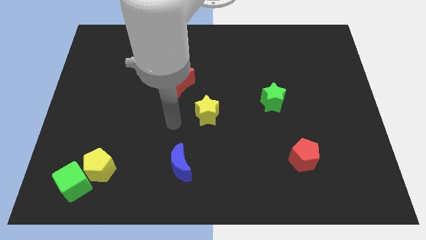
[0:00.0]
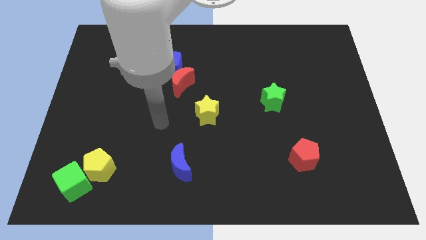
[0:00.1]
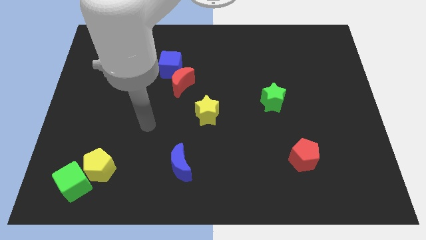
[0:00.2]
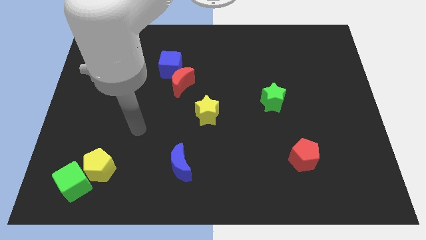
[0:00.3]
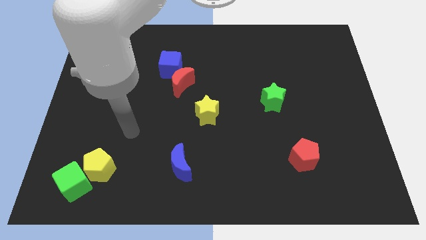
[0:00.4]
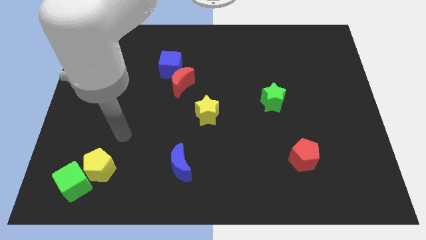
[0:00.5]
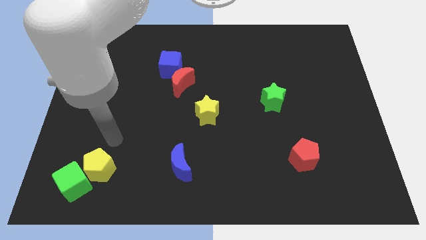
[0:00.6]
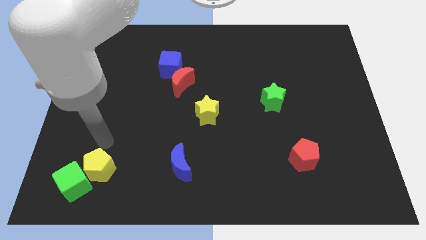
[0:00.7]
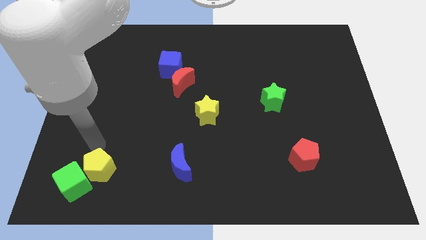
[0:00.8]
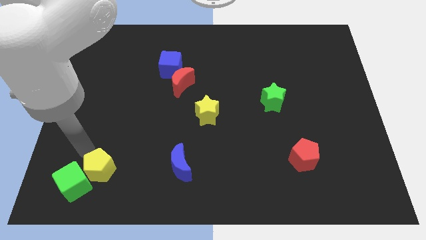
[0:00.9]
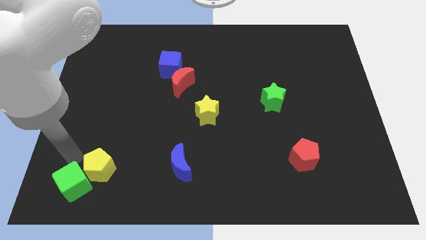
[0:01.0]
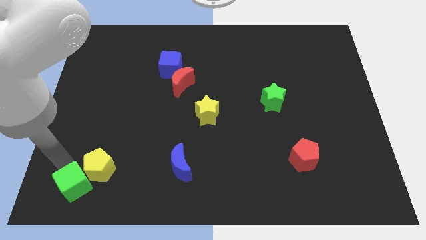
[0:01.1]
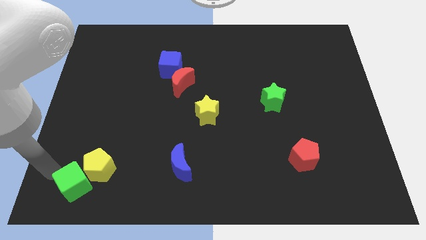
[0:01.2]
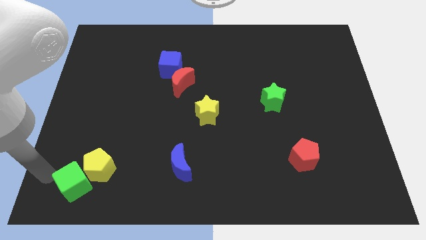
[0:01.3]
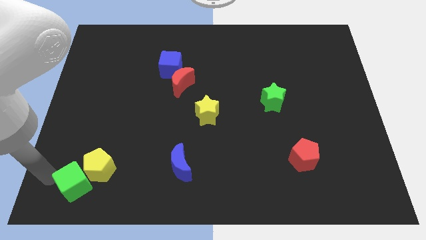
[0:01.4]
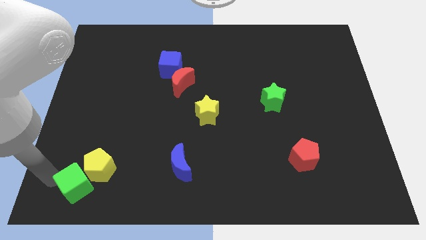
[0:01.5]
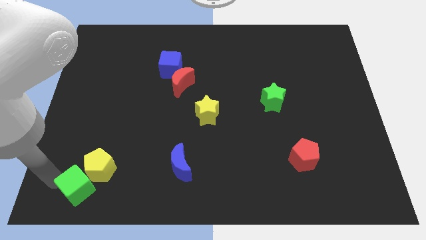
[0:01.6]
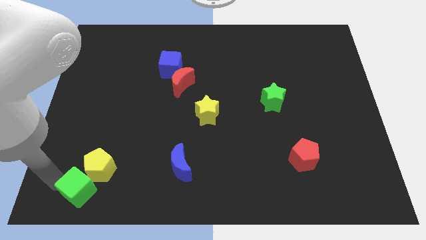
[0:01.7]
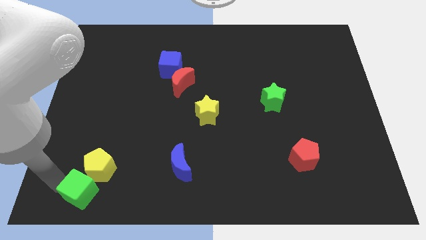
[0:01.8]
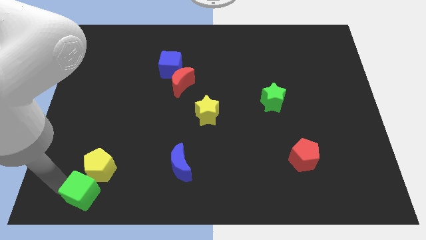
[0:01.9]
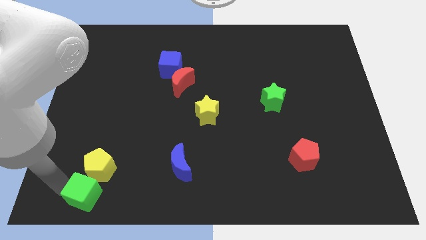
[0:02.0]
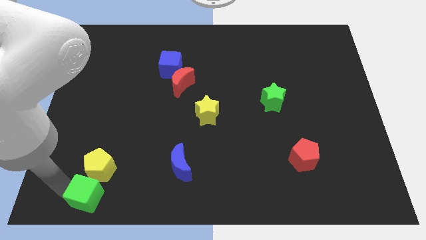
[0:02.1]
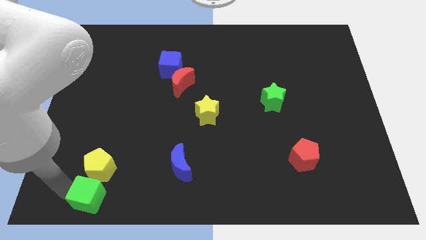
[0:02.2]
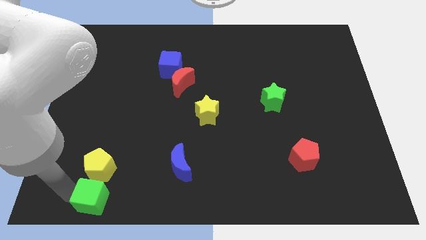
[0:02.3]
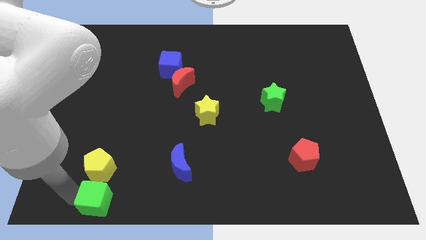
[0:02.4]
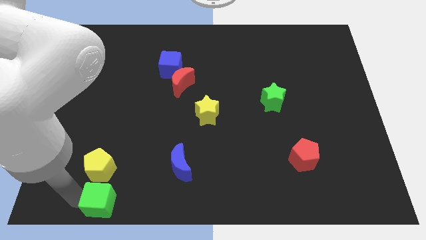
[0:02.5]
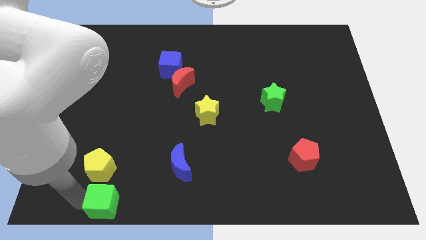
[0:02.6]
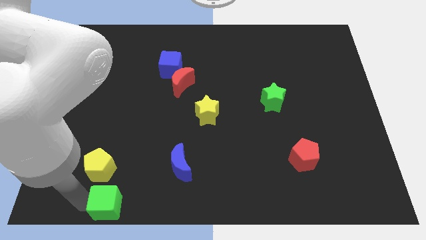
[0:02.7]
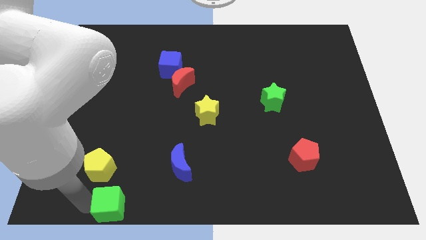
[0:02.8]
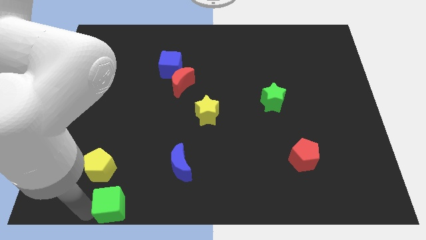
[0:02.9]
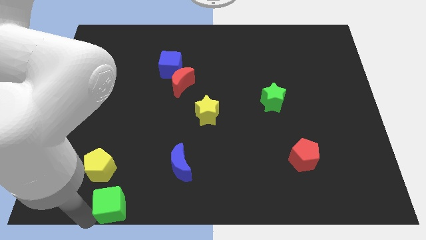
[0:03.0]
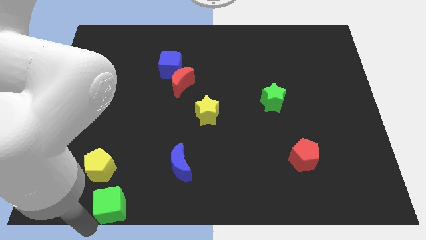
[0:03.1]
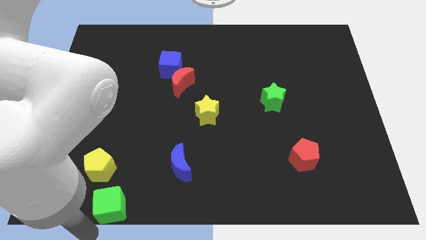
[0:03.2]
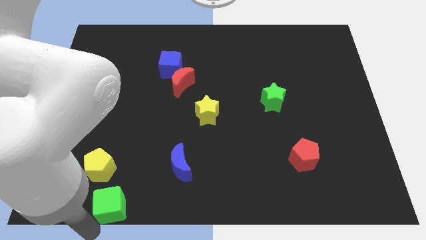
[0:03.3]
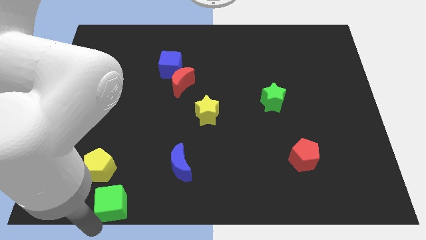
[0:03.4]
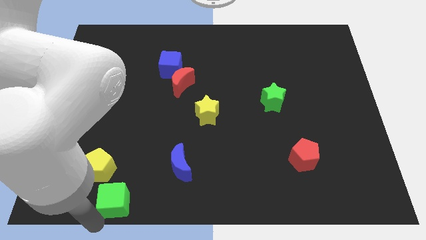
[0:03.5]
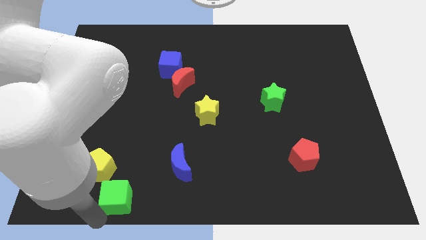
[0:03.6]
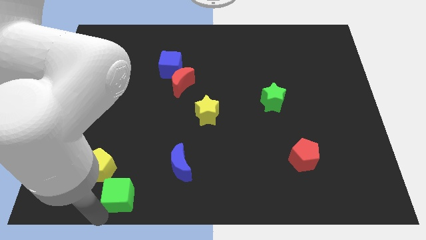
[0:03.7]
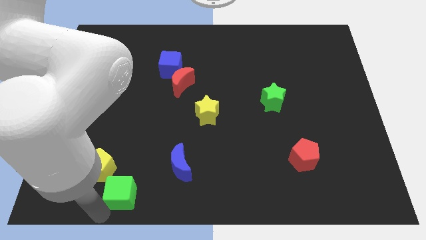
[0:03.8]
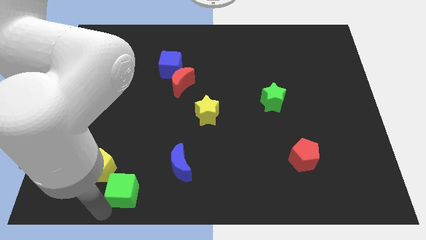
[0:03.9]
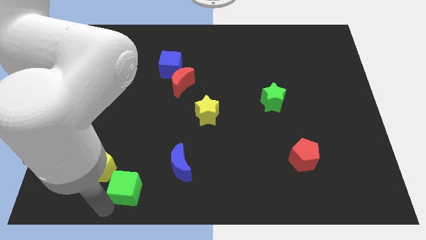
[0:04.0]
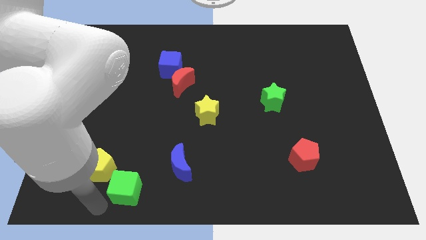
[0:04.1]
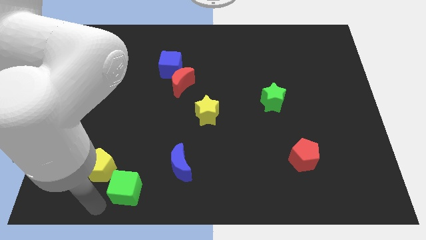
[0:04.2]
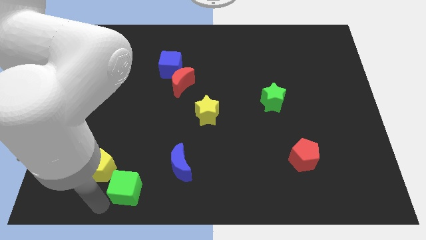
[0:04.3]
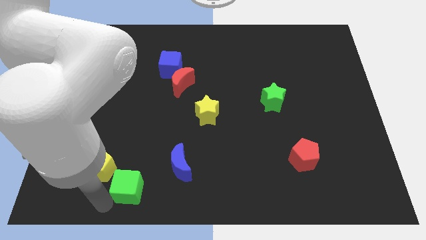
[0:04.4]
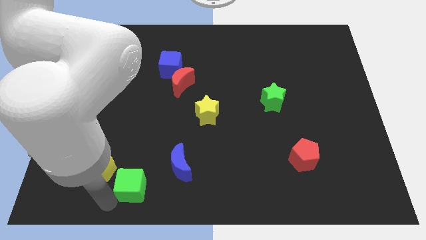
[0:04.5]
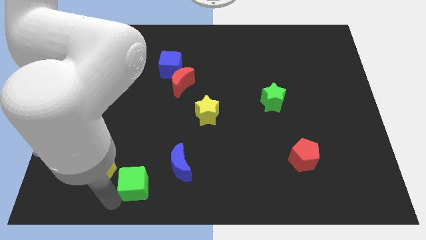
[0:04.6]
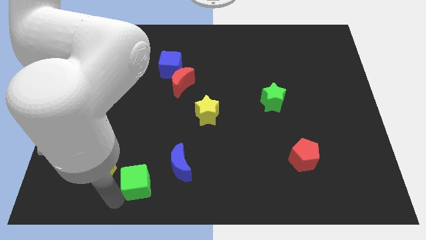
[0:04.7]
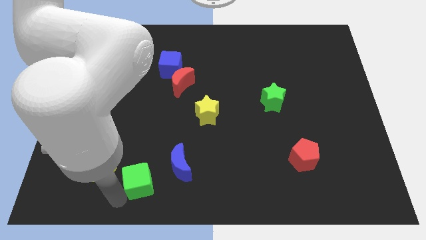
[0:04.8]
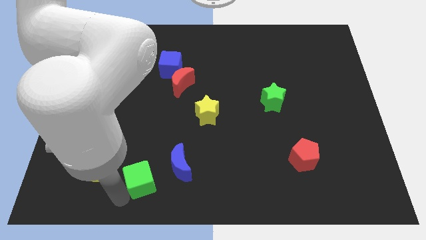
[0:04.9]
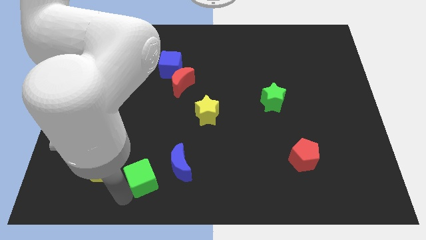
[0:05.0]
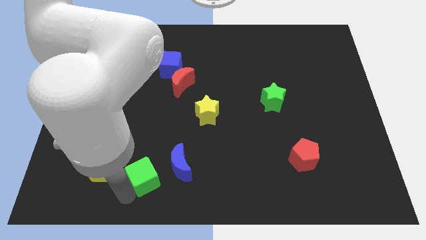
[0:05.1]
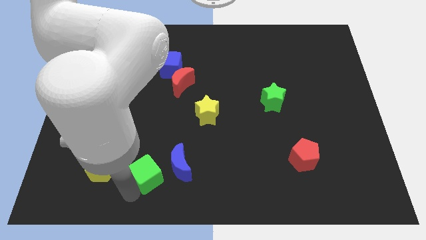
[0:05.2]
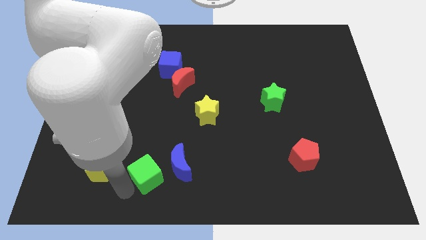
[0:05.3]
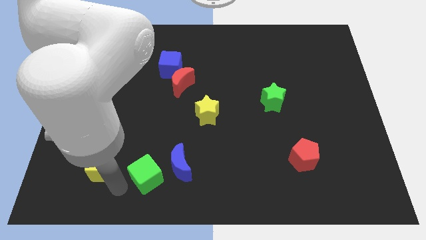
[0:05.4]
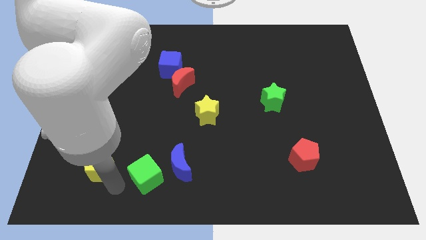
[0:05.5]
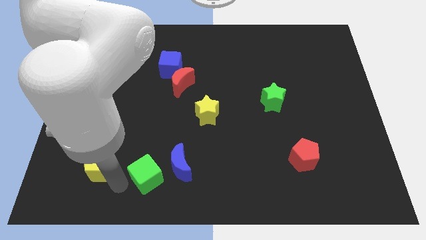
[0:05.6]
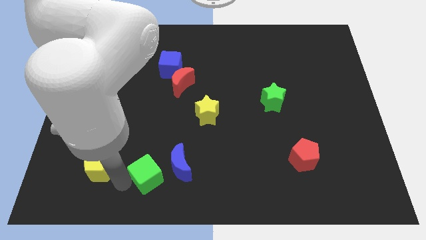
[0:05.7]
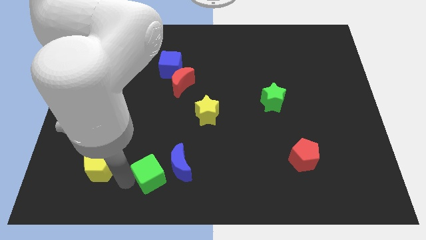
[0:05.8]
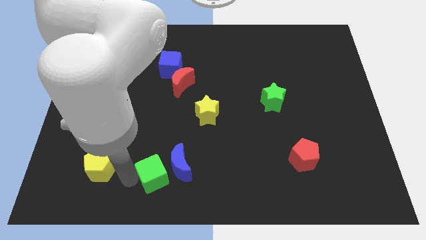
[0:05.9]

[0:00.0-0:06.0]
move the green cube close to the blue moon

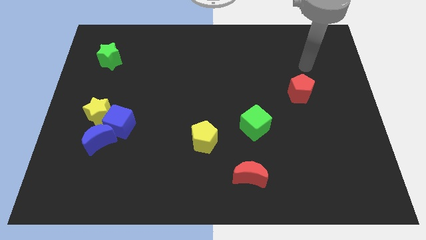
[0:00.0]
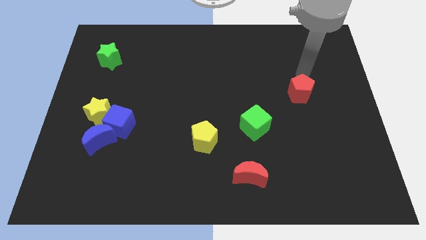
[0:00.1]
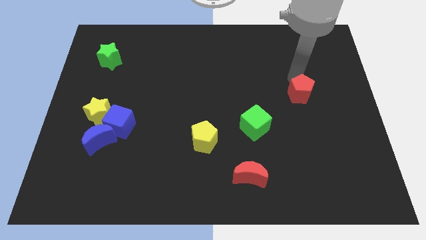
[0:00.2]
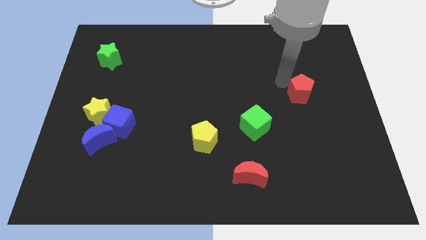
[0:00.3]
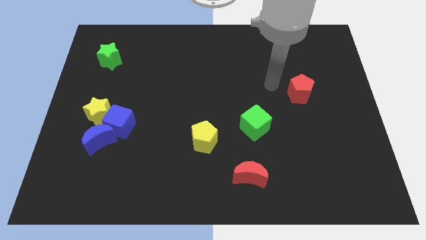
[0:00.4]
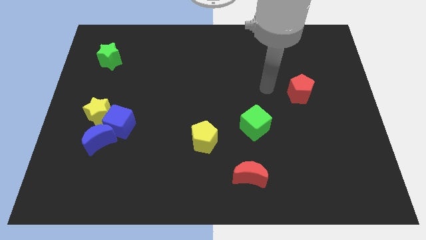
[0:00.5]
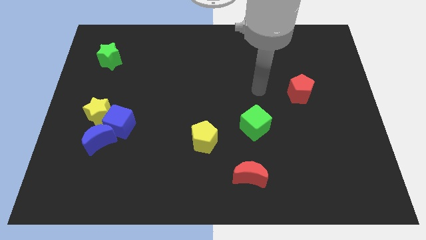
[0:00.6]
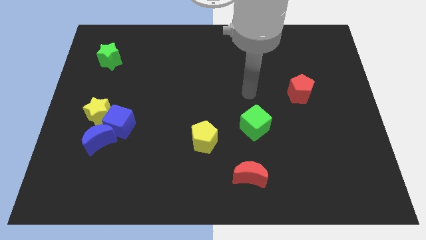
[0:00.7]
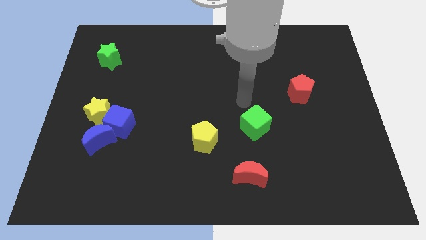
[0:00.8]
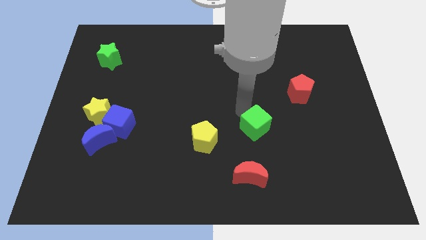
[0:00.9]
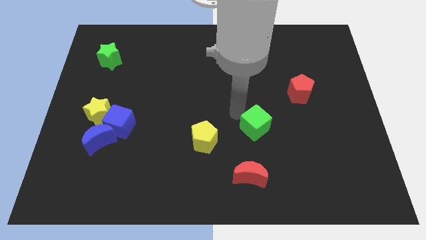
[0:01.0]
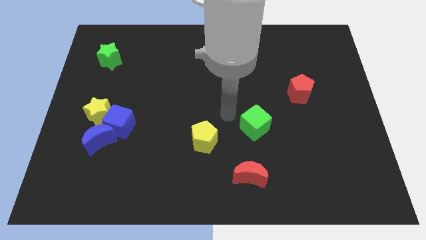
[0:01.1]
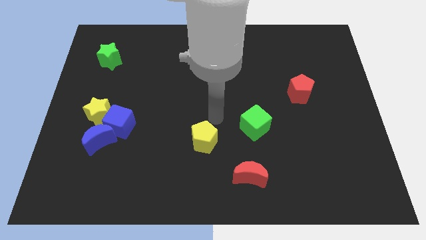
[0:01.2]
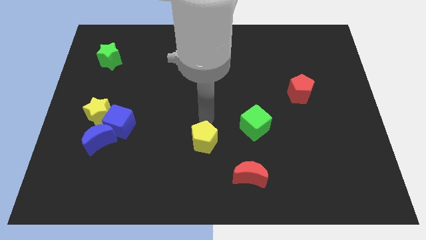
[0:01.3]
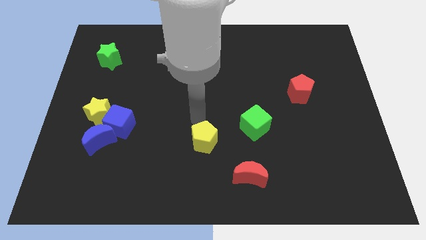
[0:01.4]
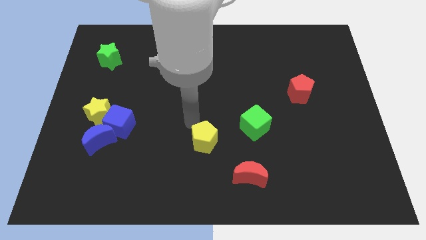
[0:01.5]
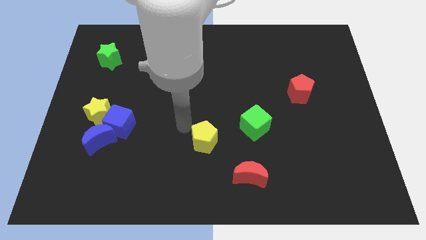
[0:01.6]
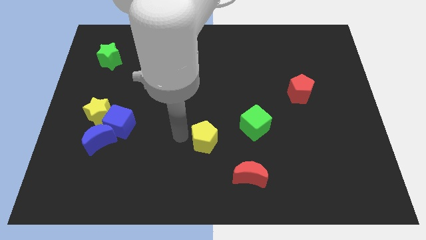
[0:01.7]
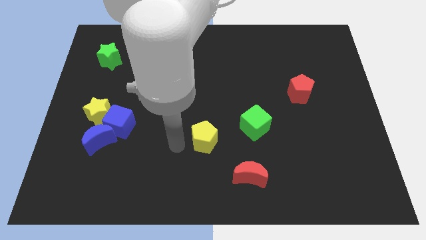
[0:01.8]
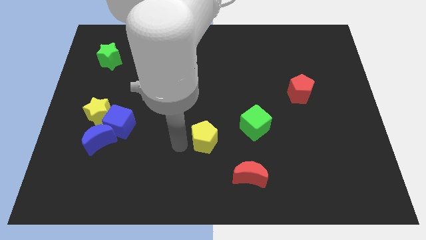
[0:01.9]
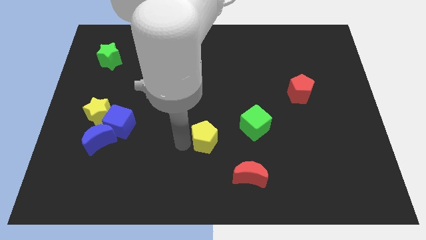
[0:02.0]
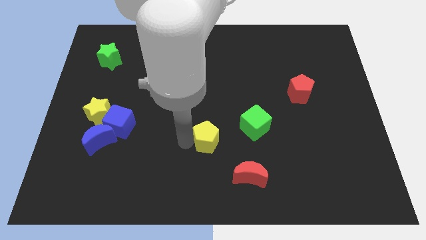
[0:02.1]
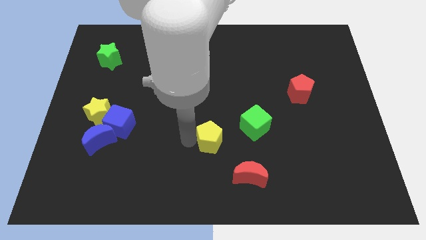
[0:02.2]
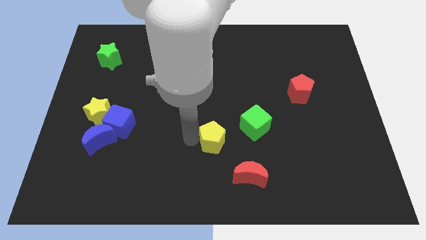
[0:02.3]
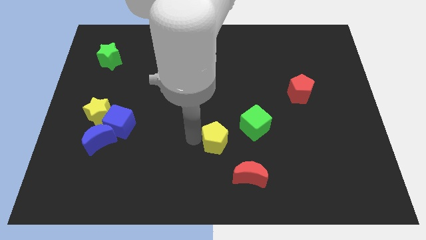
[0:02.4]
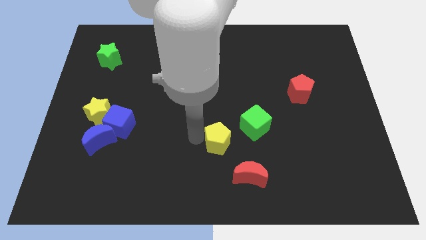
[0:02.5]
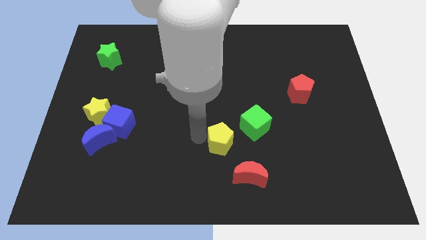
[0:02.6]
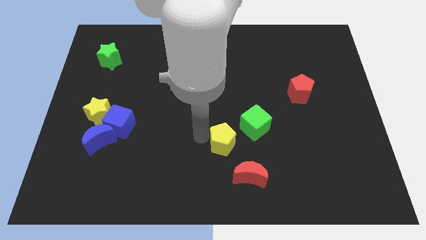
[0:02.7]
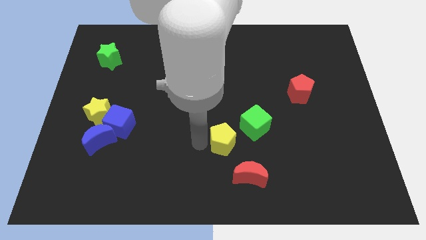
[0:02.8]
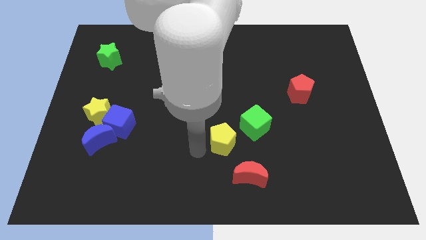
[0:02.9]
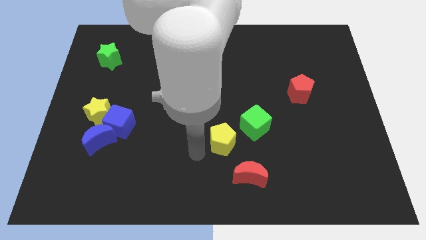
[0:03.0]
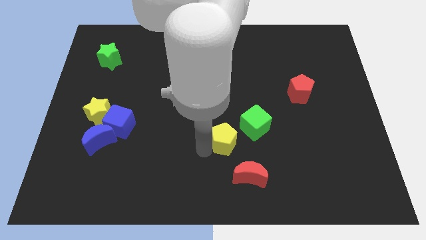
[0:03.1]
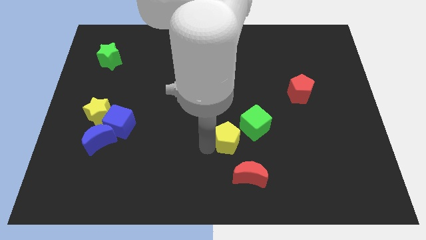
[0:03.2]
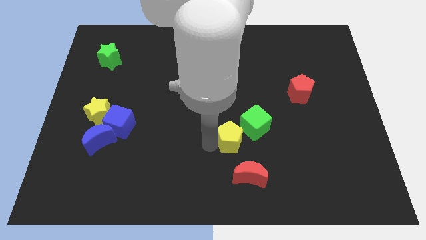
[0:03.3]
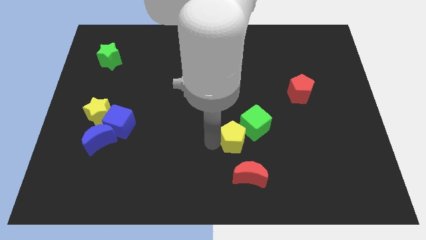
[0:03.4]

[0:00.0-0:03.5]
push the yellow pentagon to the green cube
